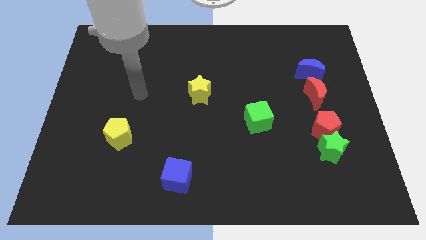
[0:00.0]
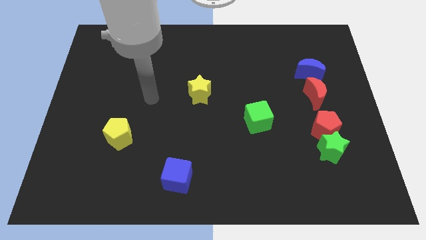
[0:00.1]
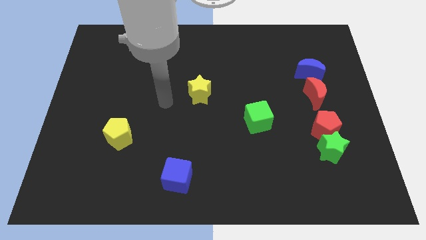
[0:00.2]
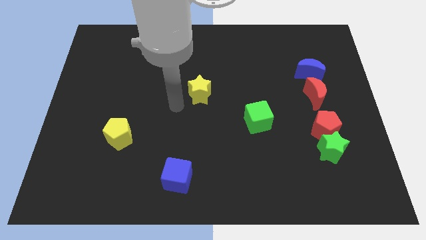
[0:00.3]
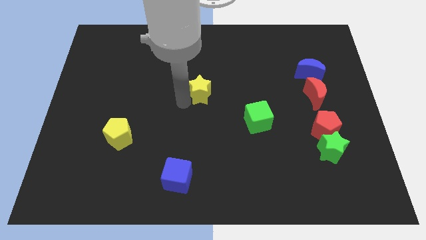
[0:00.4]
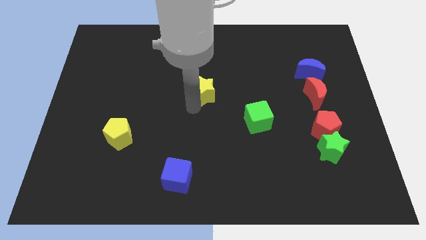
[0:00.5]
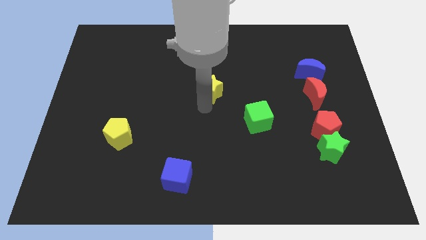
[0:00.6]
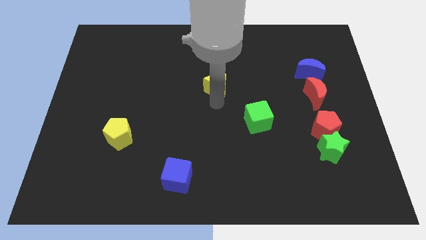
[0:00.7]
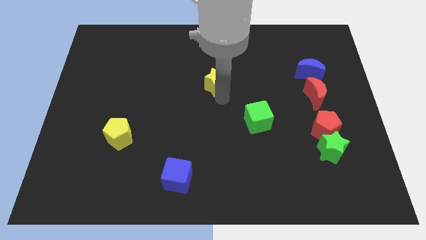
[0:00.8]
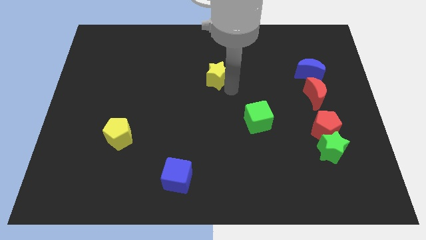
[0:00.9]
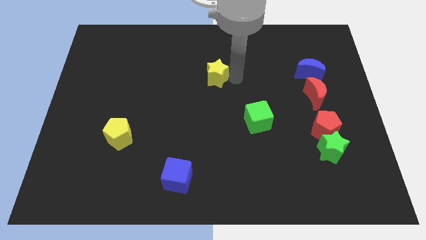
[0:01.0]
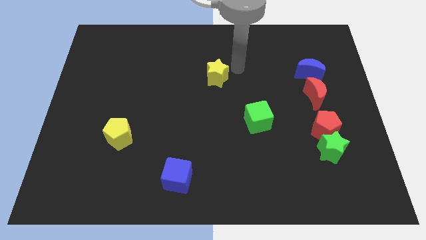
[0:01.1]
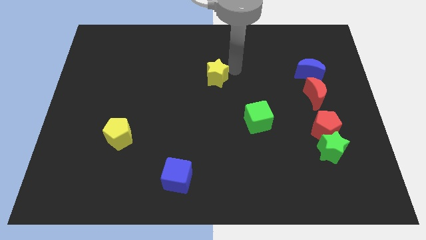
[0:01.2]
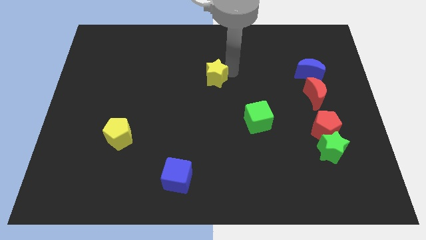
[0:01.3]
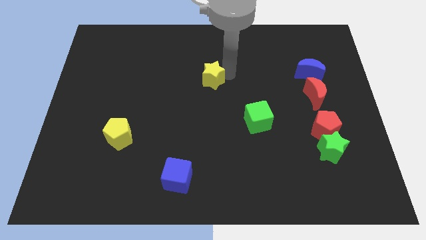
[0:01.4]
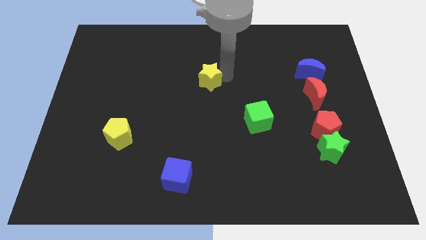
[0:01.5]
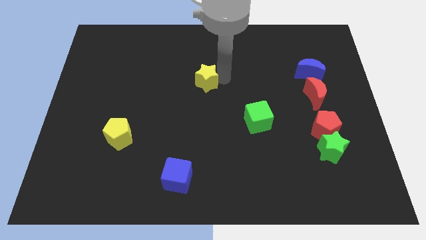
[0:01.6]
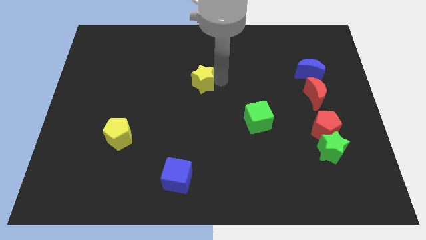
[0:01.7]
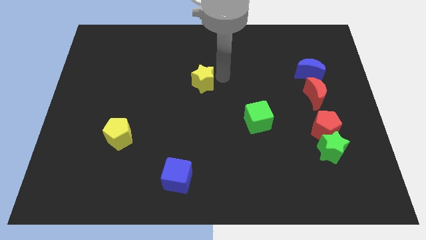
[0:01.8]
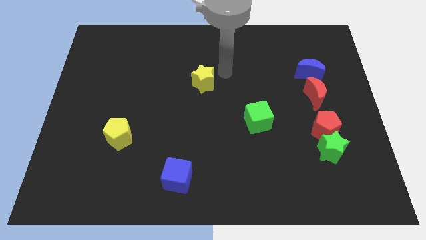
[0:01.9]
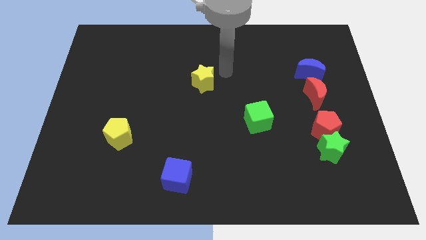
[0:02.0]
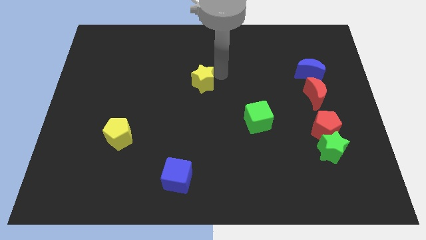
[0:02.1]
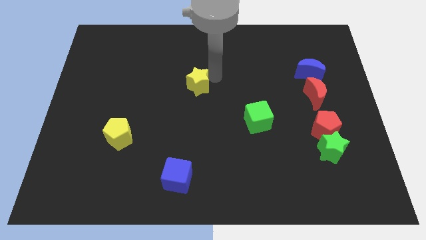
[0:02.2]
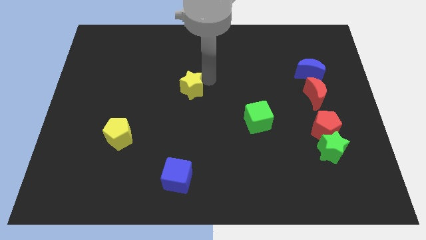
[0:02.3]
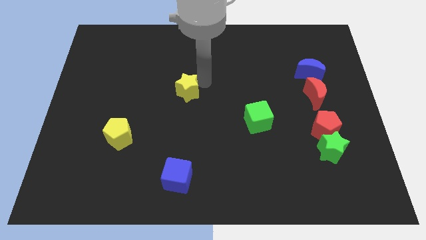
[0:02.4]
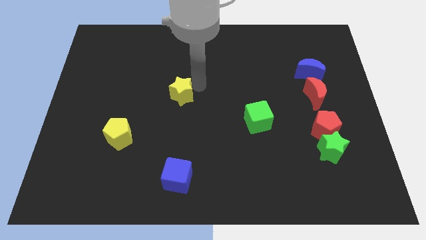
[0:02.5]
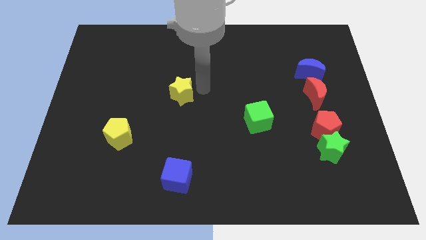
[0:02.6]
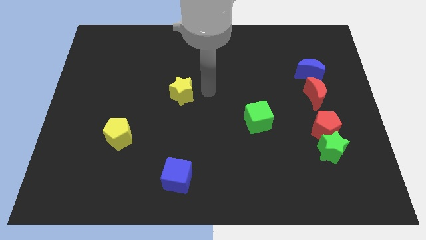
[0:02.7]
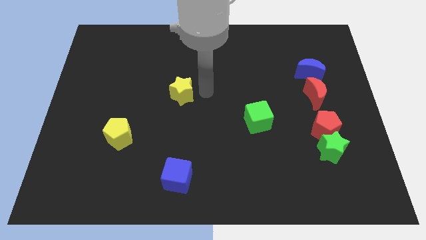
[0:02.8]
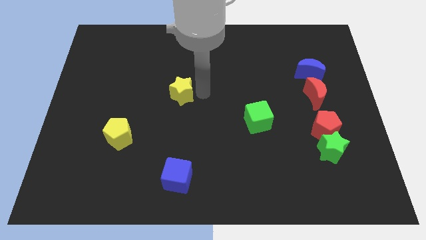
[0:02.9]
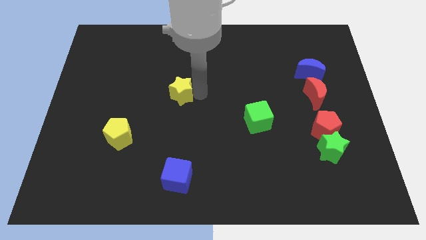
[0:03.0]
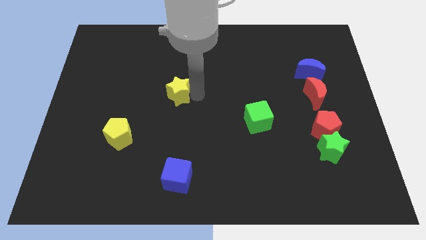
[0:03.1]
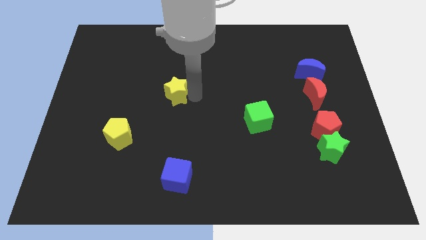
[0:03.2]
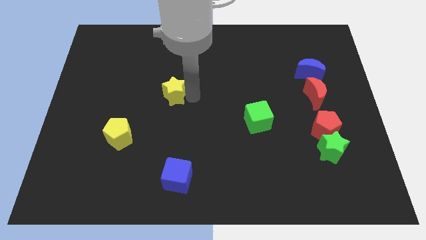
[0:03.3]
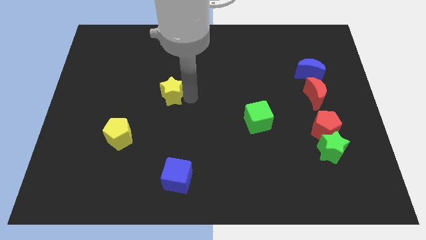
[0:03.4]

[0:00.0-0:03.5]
move the yellow star to the left a little

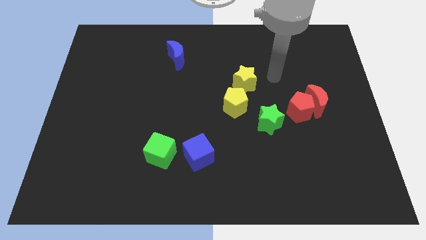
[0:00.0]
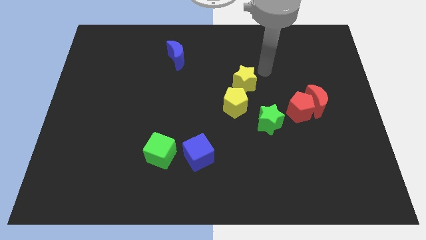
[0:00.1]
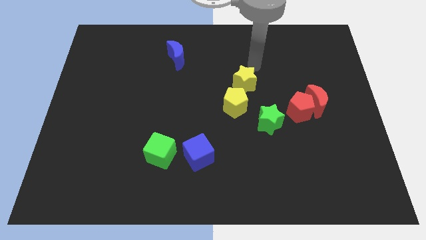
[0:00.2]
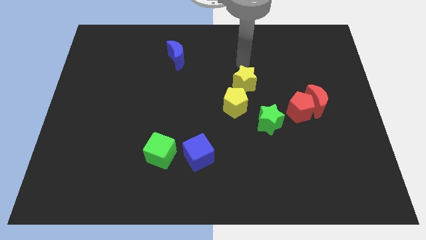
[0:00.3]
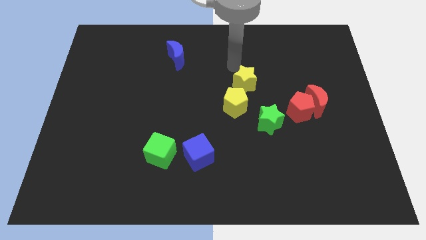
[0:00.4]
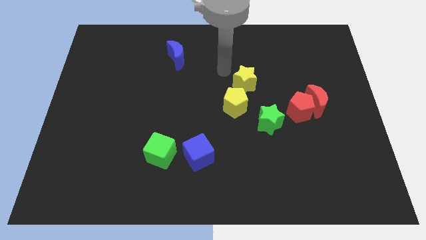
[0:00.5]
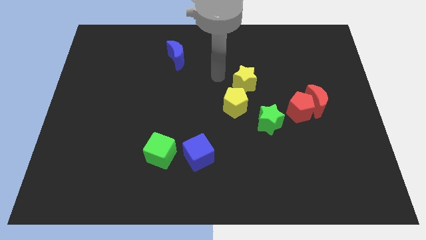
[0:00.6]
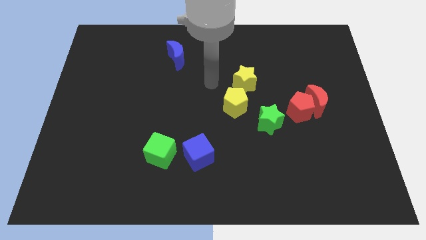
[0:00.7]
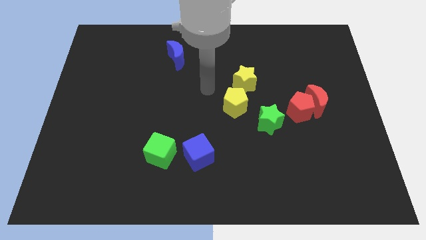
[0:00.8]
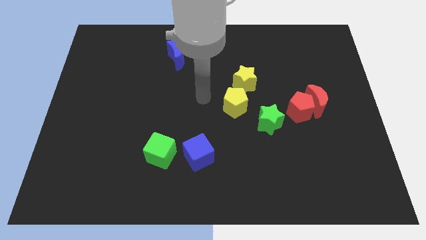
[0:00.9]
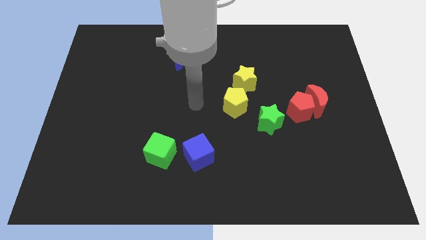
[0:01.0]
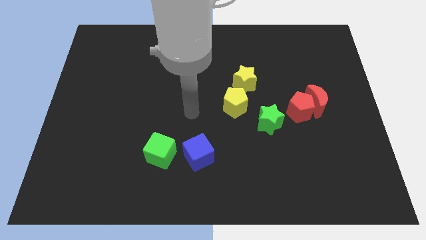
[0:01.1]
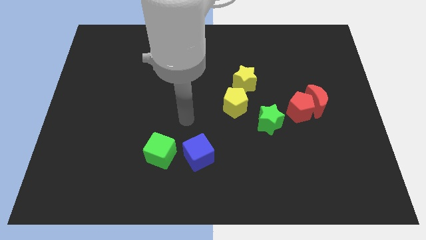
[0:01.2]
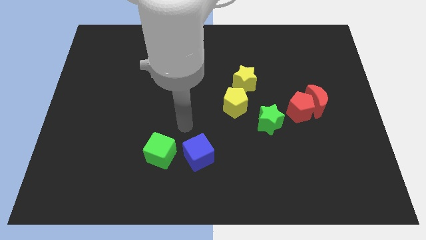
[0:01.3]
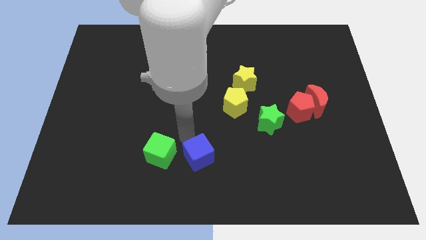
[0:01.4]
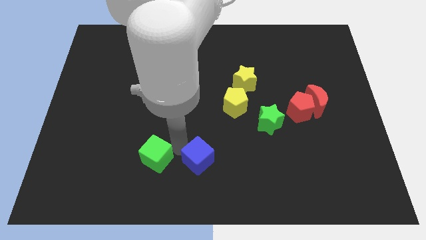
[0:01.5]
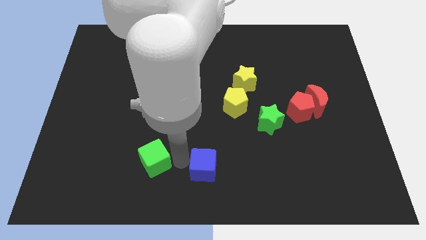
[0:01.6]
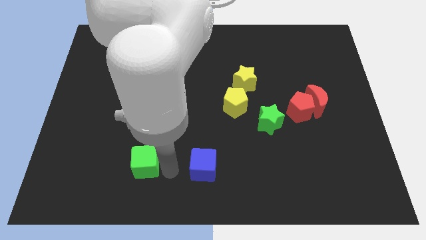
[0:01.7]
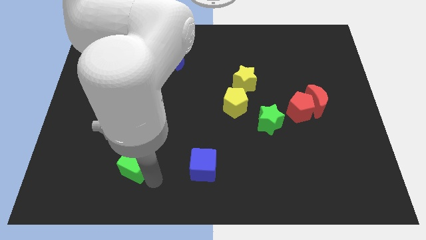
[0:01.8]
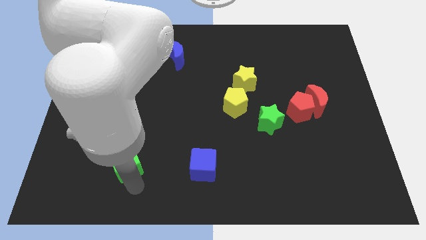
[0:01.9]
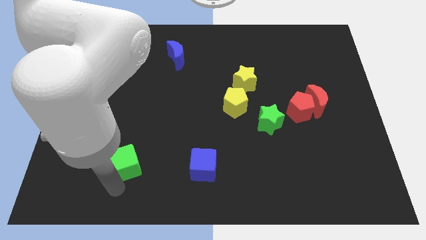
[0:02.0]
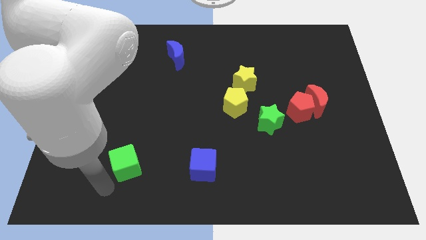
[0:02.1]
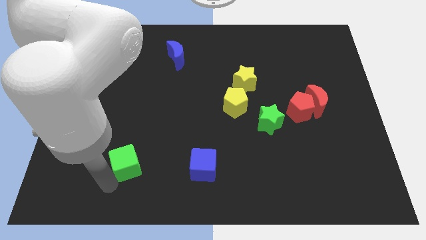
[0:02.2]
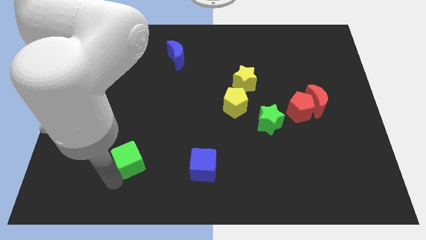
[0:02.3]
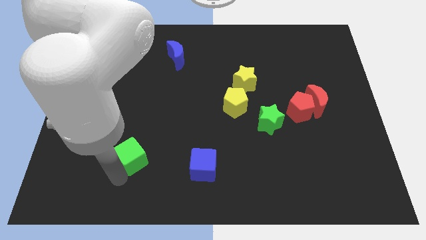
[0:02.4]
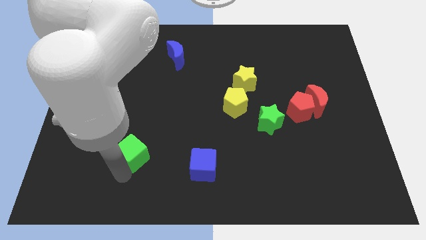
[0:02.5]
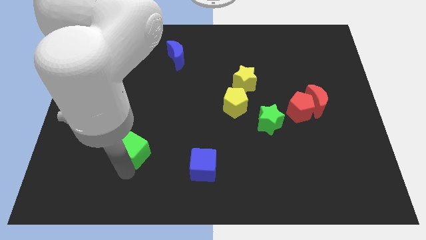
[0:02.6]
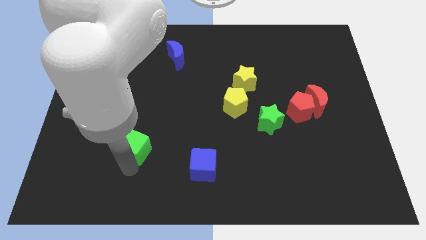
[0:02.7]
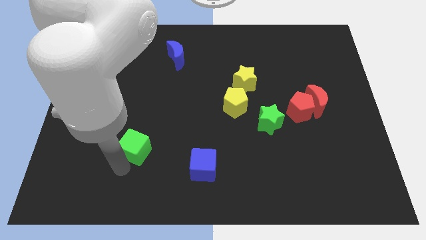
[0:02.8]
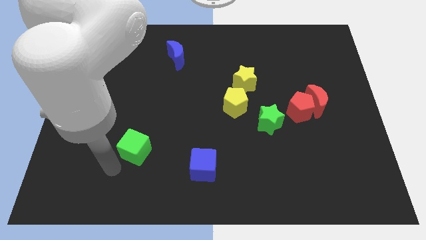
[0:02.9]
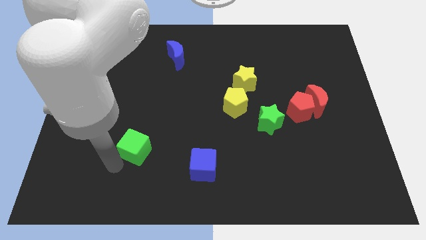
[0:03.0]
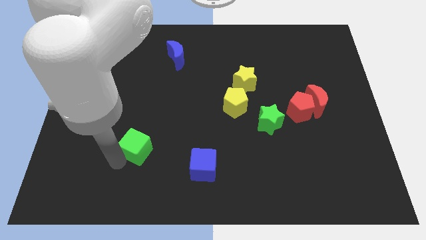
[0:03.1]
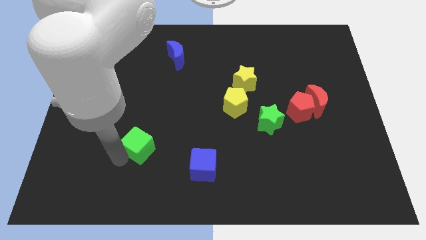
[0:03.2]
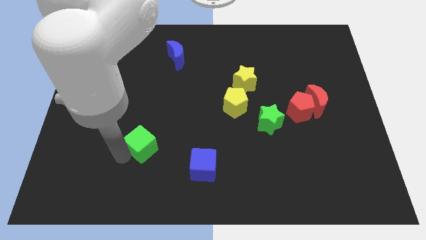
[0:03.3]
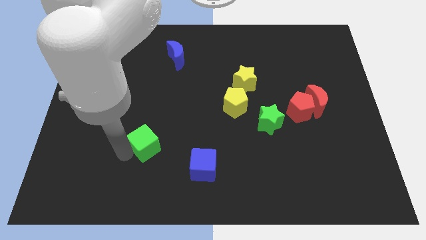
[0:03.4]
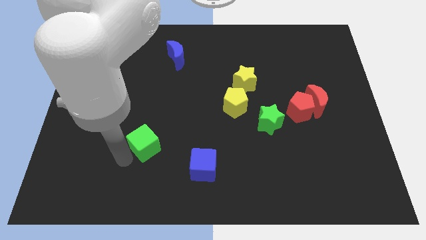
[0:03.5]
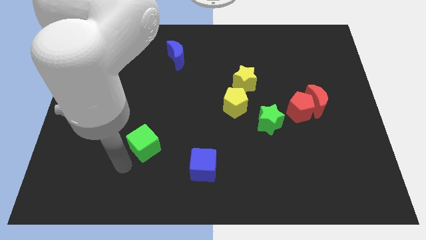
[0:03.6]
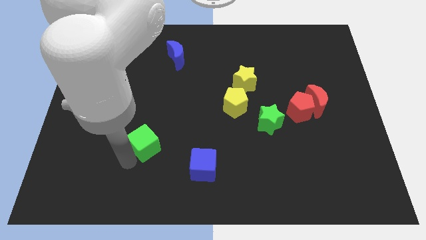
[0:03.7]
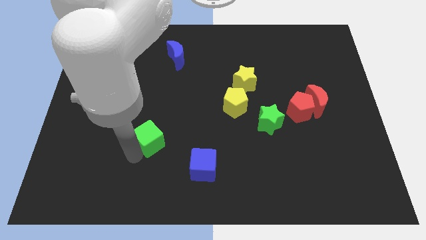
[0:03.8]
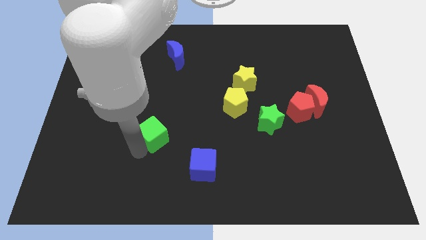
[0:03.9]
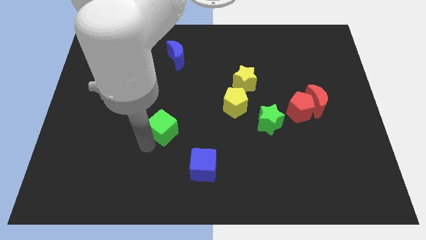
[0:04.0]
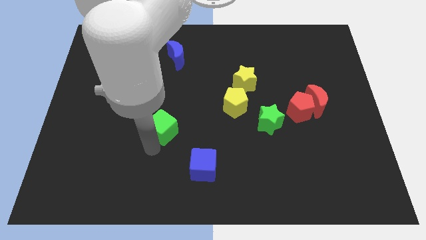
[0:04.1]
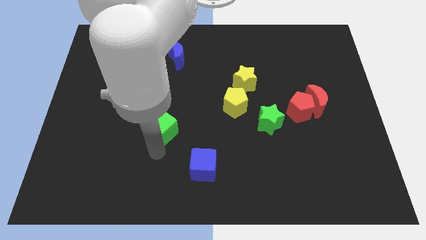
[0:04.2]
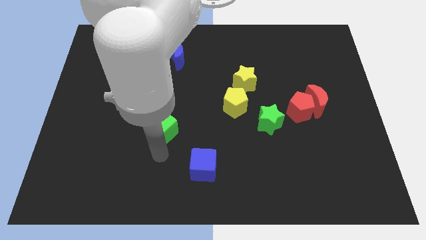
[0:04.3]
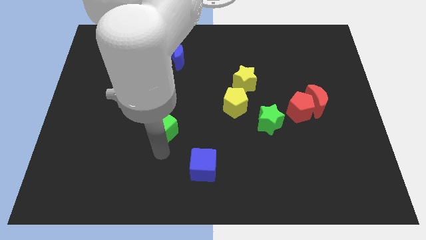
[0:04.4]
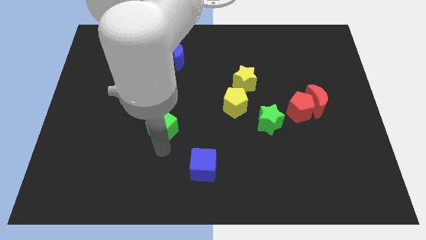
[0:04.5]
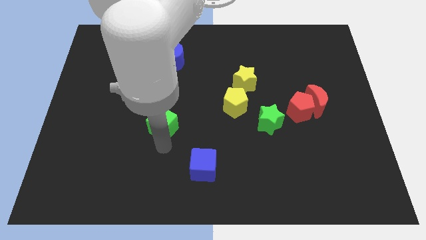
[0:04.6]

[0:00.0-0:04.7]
slightly slide the green cube up
